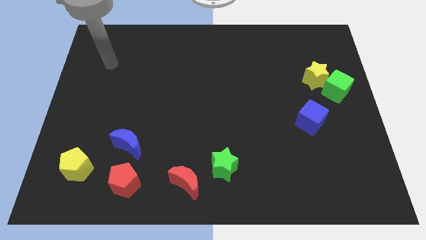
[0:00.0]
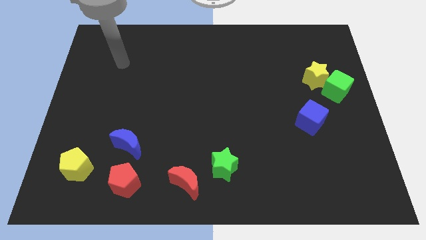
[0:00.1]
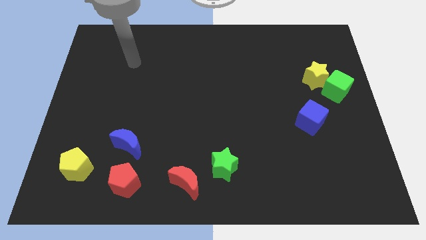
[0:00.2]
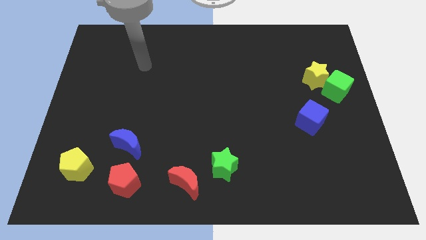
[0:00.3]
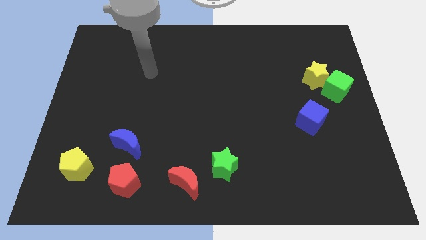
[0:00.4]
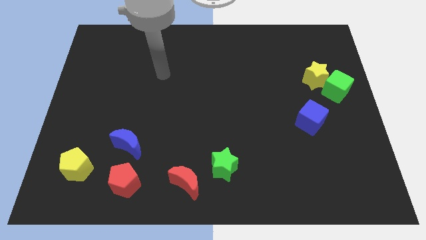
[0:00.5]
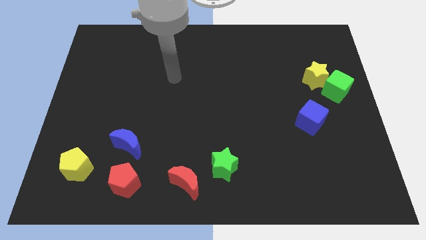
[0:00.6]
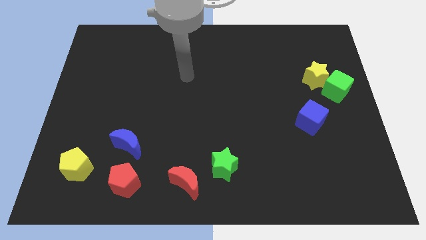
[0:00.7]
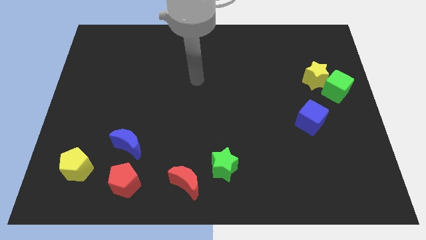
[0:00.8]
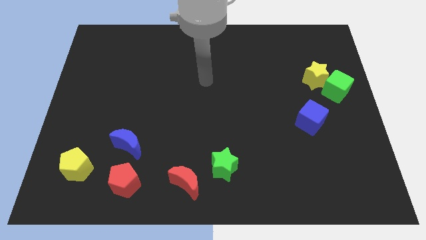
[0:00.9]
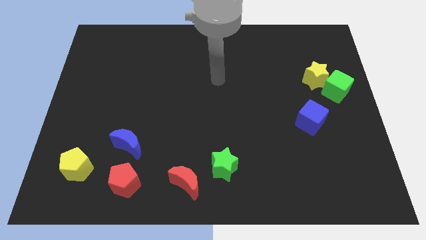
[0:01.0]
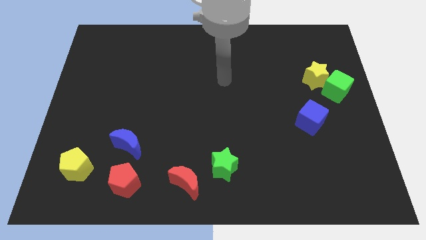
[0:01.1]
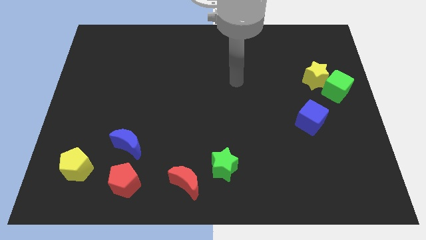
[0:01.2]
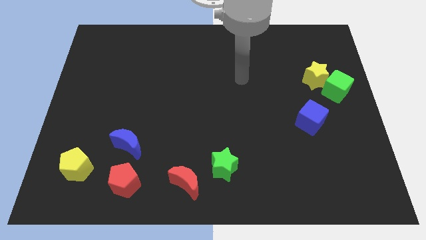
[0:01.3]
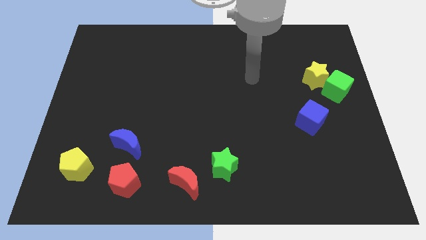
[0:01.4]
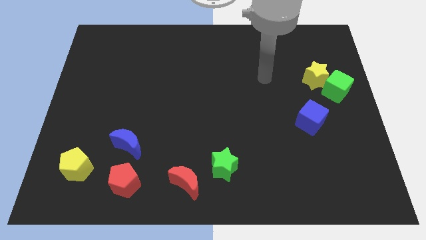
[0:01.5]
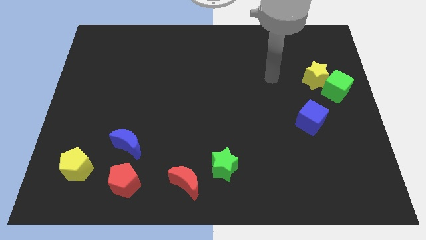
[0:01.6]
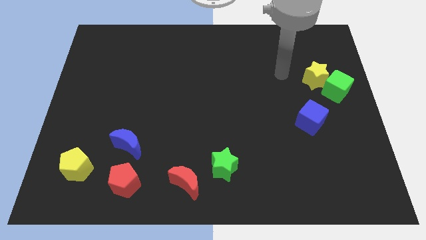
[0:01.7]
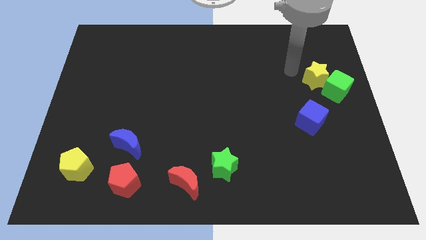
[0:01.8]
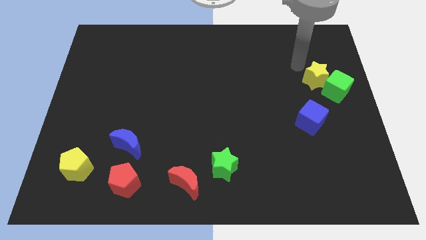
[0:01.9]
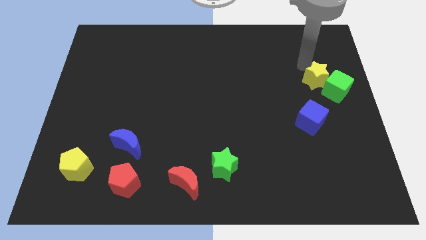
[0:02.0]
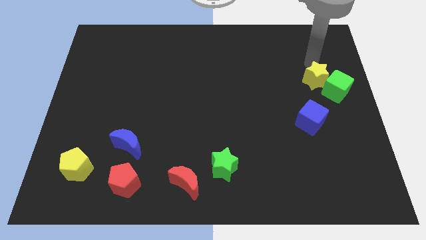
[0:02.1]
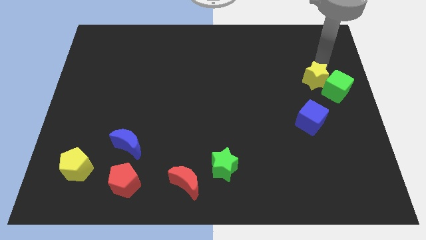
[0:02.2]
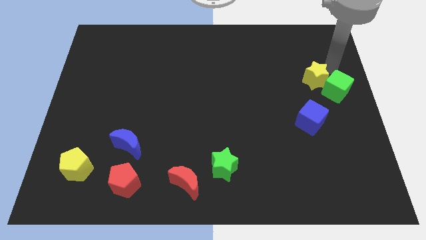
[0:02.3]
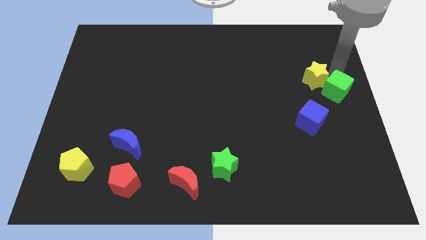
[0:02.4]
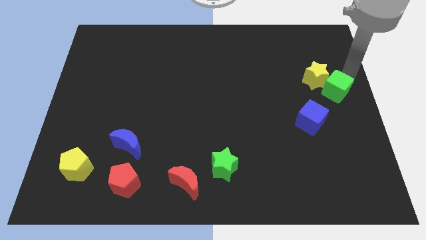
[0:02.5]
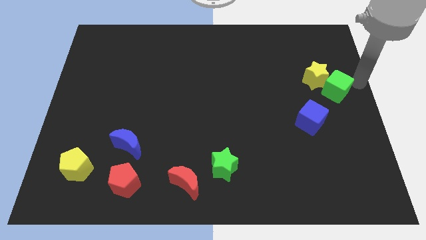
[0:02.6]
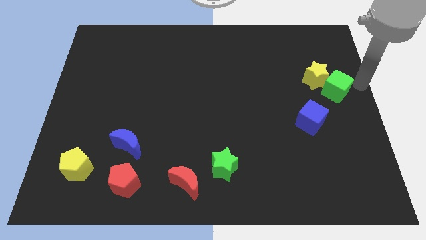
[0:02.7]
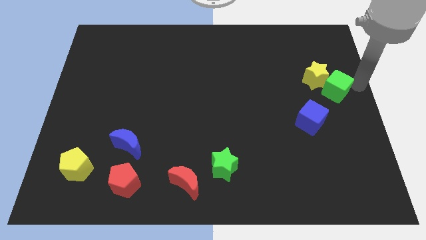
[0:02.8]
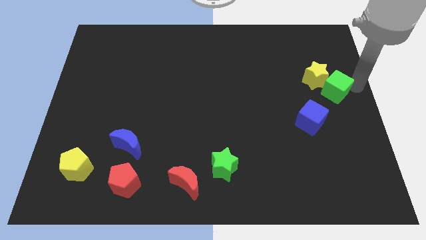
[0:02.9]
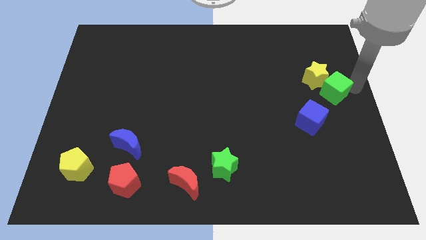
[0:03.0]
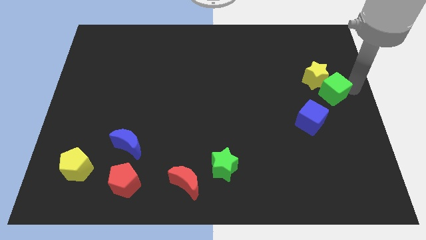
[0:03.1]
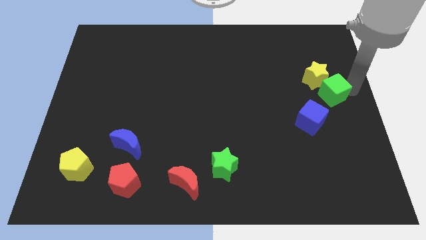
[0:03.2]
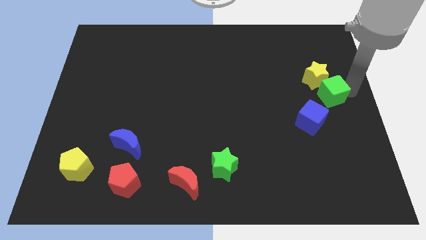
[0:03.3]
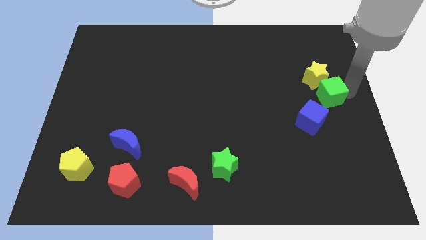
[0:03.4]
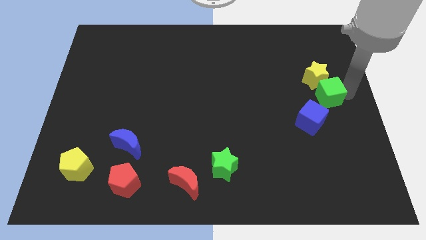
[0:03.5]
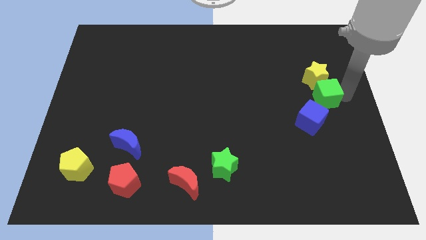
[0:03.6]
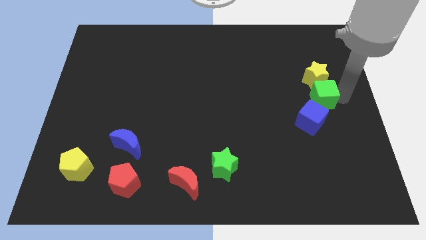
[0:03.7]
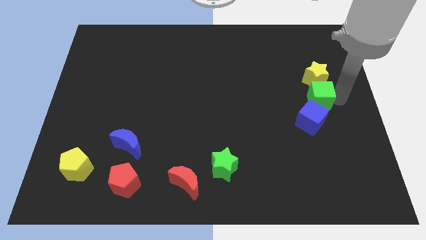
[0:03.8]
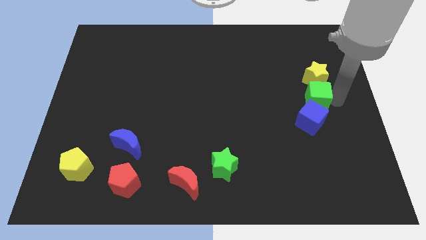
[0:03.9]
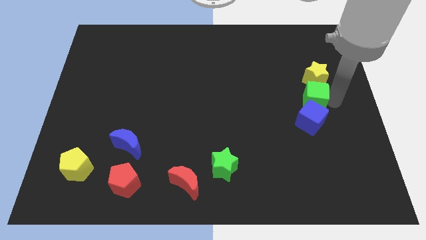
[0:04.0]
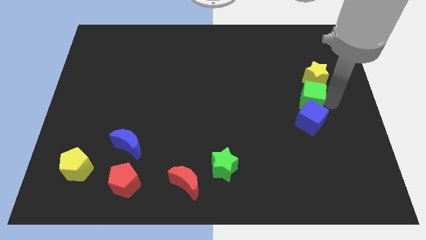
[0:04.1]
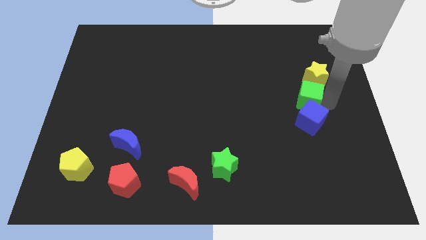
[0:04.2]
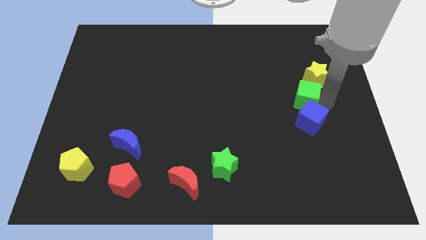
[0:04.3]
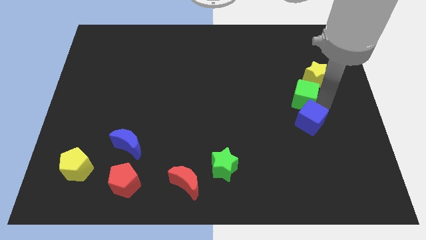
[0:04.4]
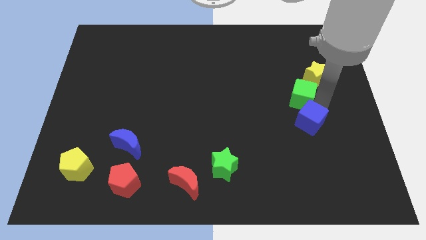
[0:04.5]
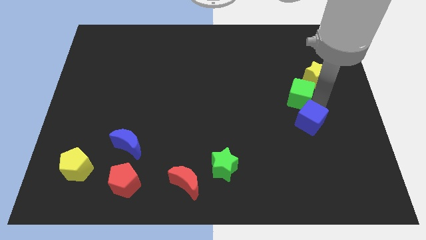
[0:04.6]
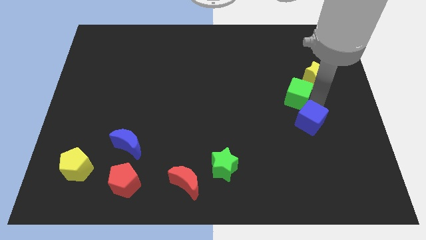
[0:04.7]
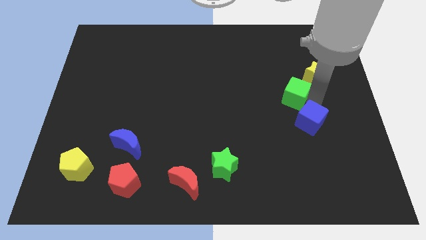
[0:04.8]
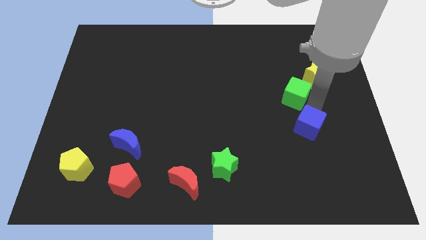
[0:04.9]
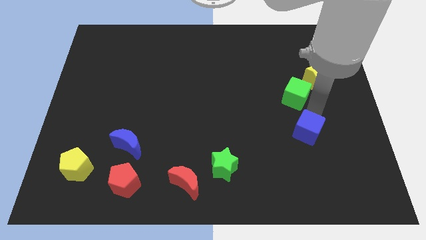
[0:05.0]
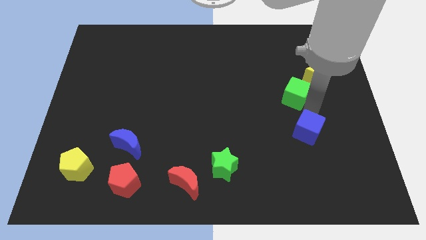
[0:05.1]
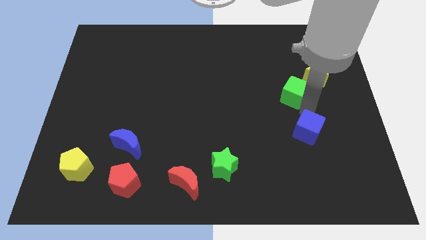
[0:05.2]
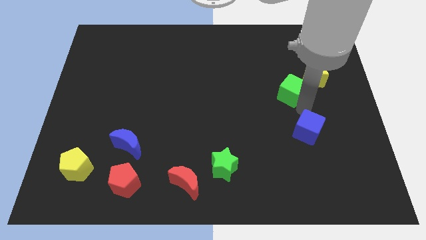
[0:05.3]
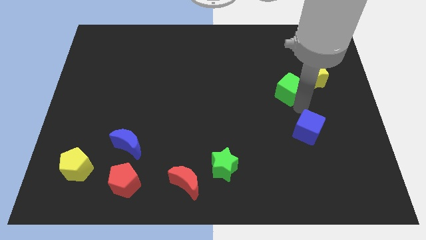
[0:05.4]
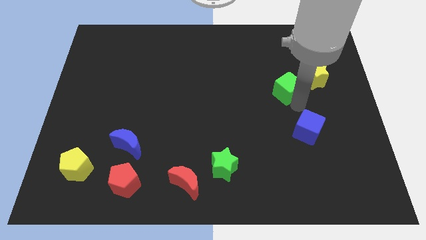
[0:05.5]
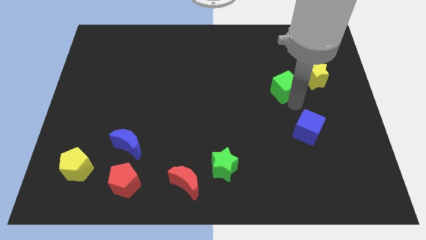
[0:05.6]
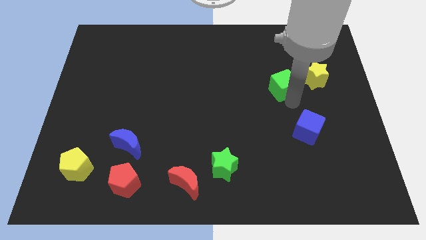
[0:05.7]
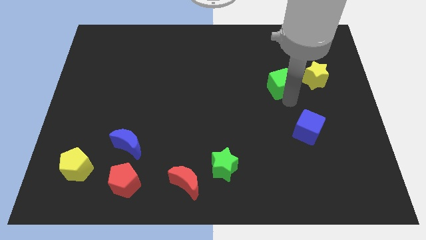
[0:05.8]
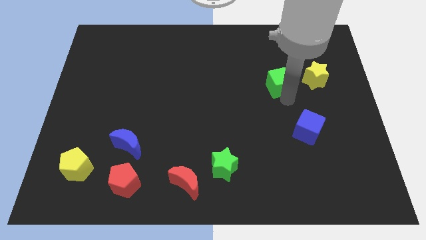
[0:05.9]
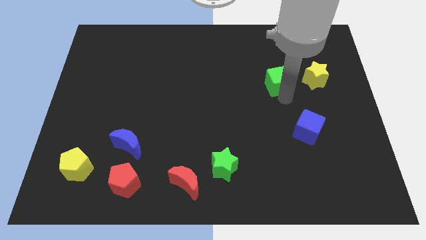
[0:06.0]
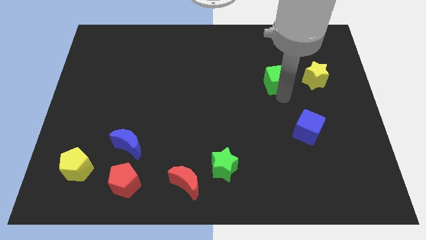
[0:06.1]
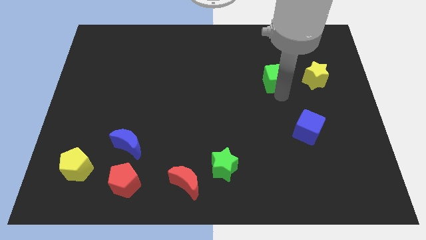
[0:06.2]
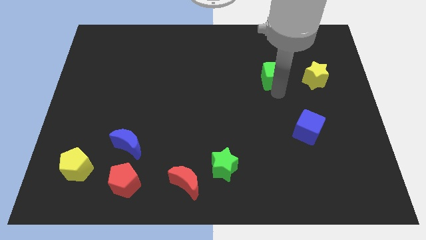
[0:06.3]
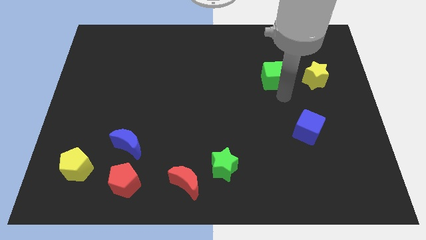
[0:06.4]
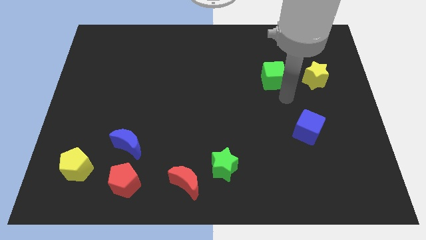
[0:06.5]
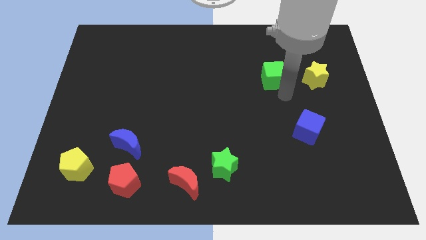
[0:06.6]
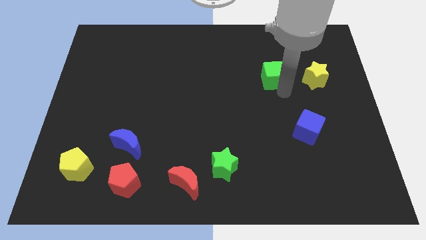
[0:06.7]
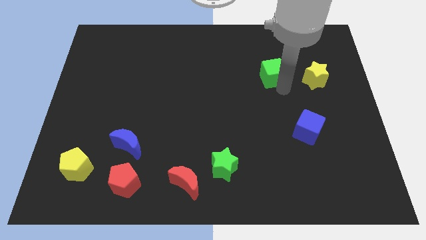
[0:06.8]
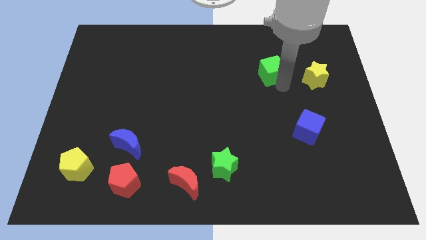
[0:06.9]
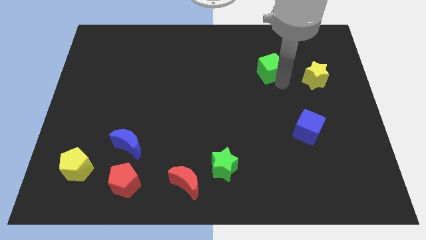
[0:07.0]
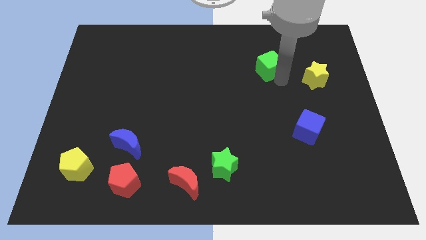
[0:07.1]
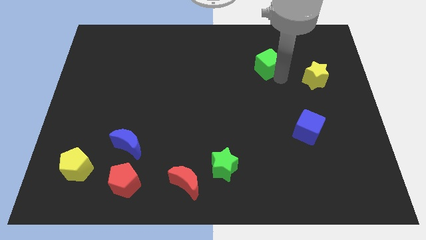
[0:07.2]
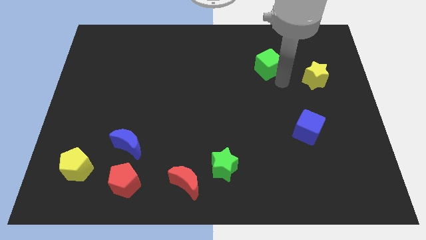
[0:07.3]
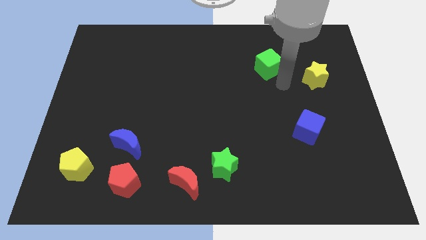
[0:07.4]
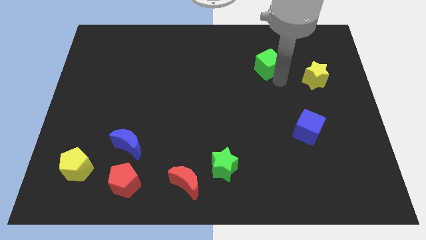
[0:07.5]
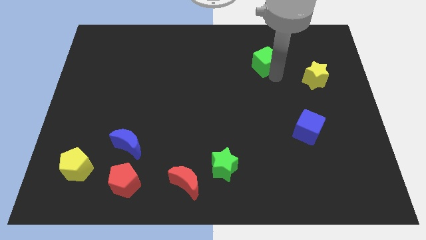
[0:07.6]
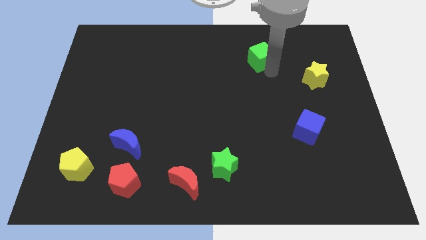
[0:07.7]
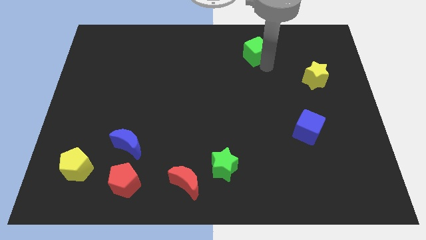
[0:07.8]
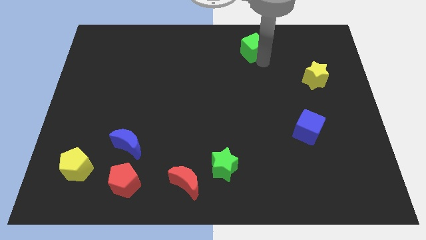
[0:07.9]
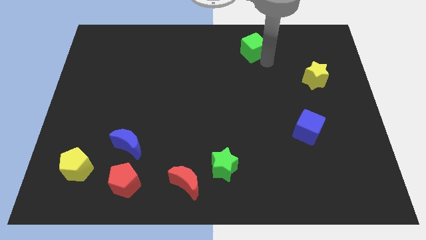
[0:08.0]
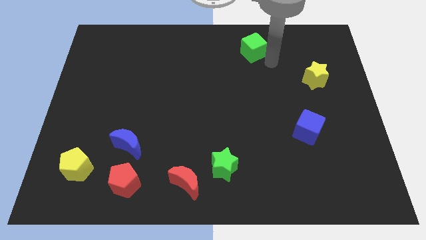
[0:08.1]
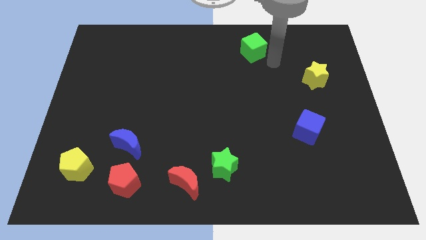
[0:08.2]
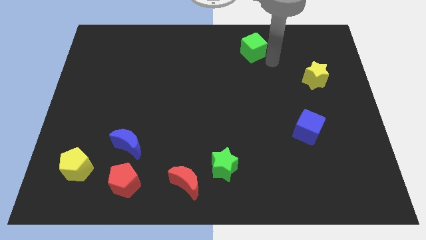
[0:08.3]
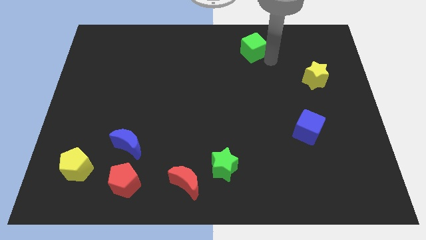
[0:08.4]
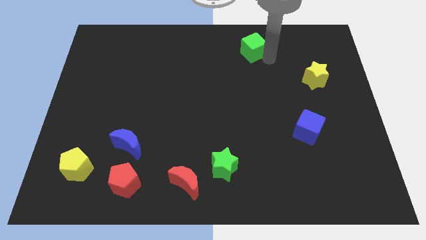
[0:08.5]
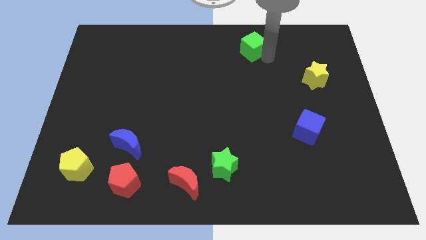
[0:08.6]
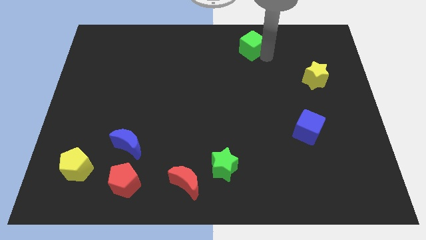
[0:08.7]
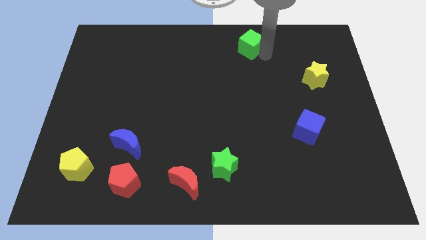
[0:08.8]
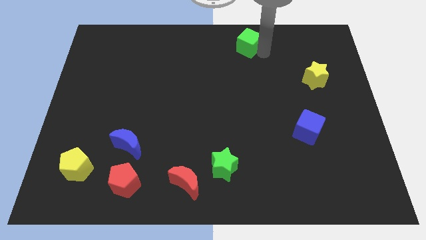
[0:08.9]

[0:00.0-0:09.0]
move the green cube to the top
